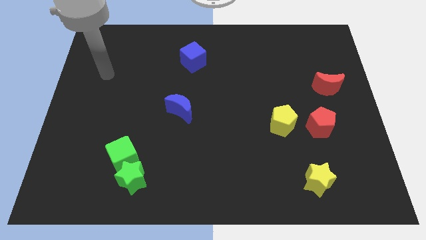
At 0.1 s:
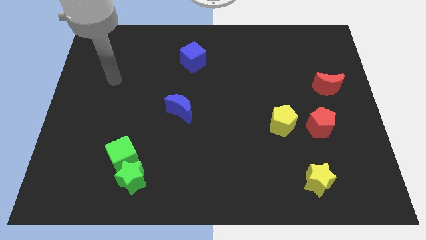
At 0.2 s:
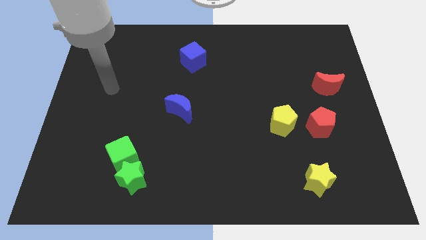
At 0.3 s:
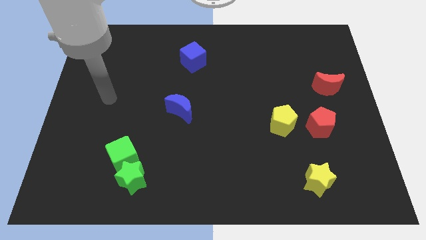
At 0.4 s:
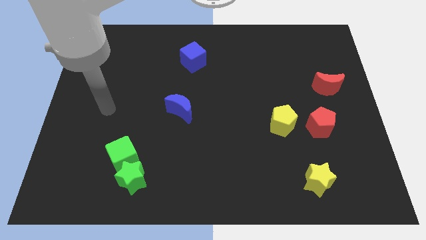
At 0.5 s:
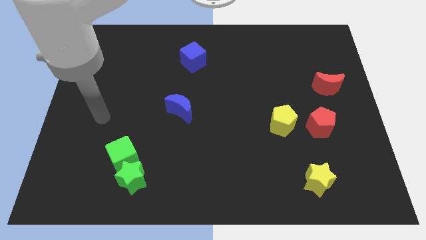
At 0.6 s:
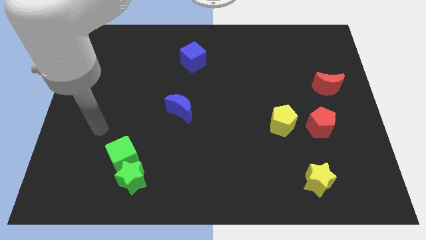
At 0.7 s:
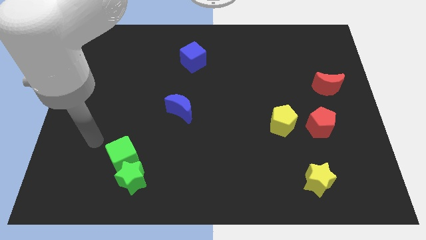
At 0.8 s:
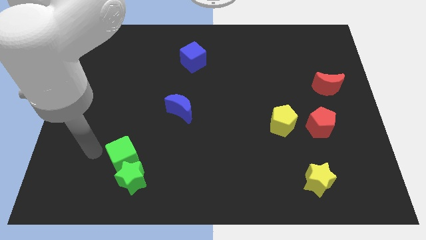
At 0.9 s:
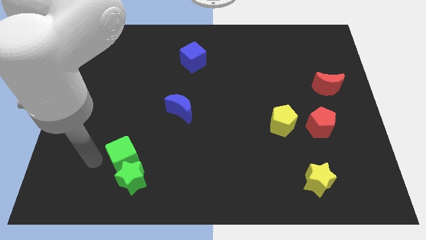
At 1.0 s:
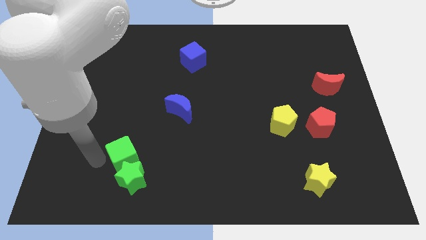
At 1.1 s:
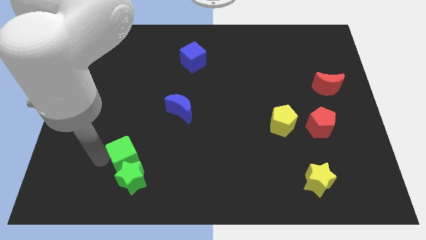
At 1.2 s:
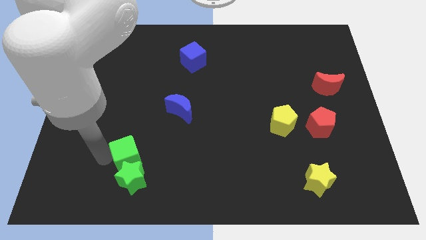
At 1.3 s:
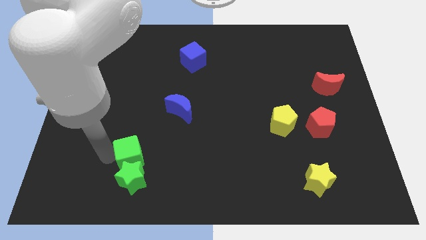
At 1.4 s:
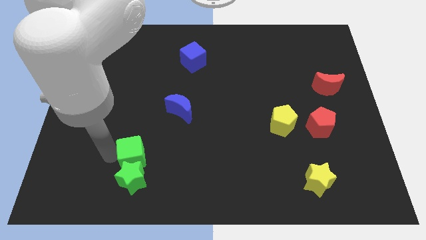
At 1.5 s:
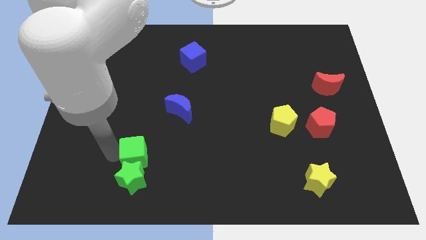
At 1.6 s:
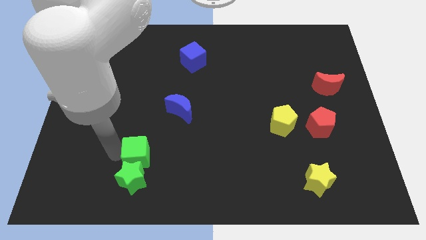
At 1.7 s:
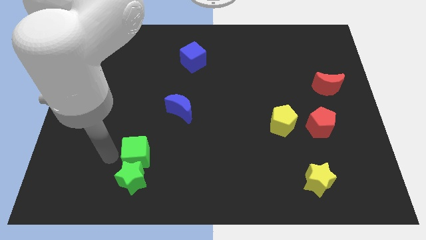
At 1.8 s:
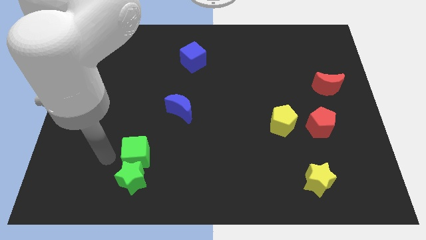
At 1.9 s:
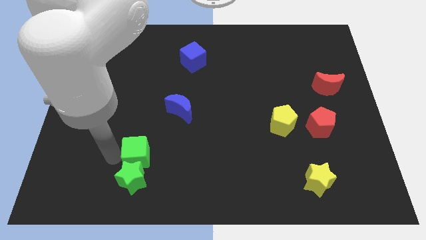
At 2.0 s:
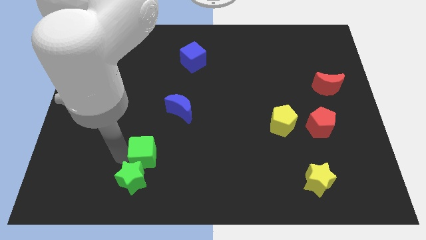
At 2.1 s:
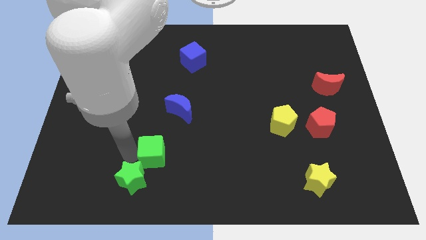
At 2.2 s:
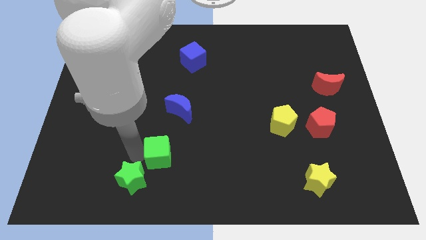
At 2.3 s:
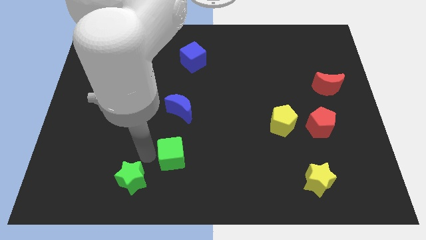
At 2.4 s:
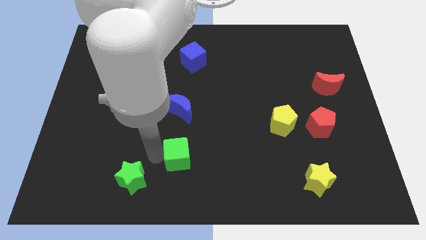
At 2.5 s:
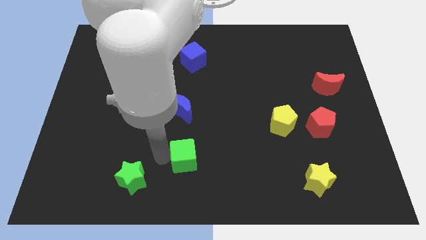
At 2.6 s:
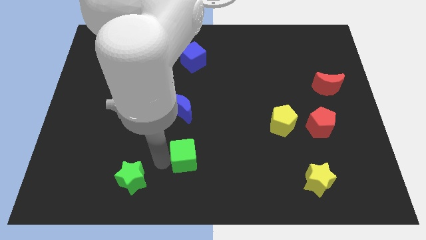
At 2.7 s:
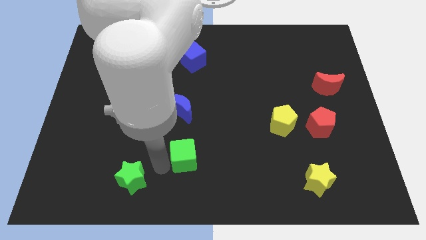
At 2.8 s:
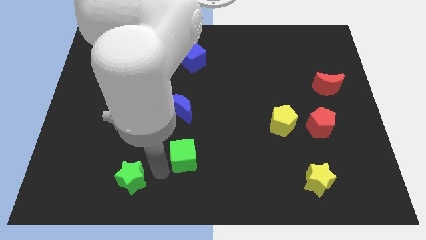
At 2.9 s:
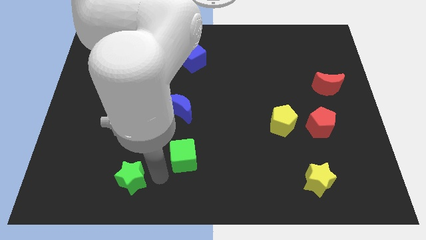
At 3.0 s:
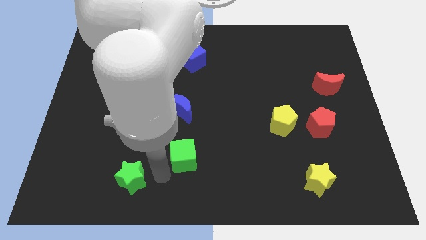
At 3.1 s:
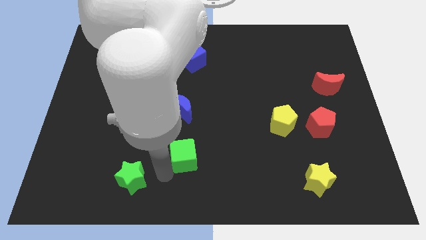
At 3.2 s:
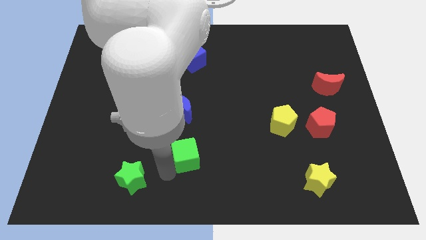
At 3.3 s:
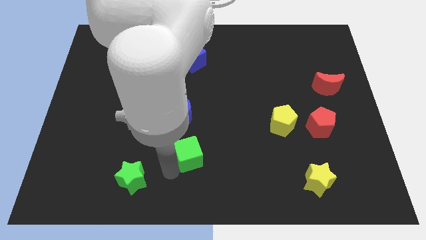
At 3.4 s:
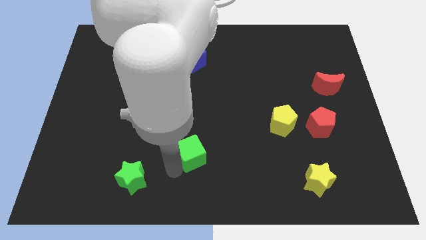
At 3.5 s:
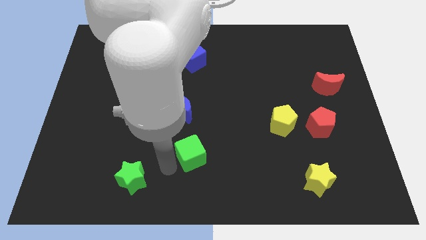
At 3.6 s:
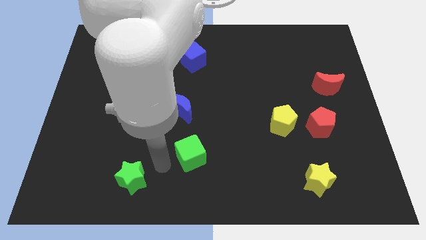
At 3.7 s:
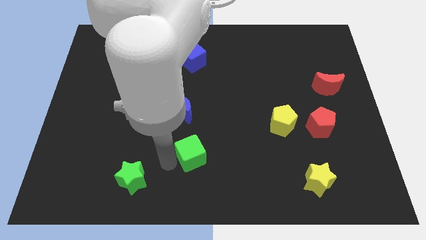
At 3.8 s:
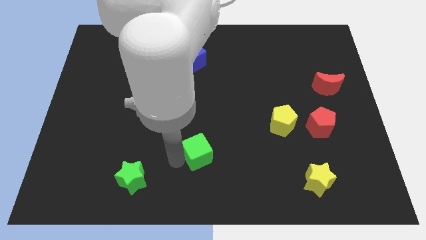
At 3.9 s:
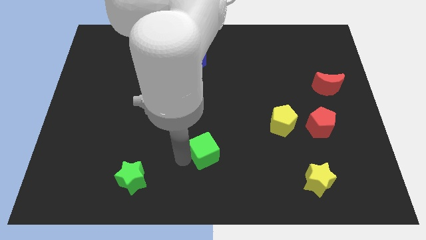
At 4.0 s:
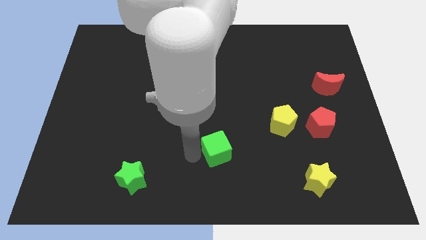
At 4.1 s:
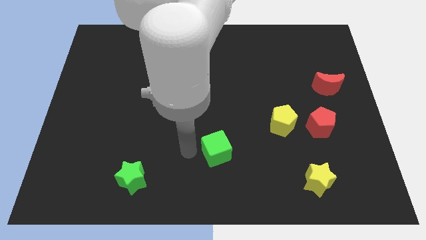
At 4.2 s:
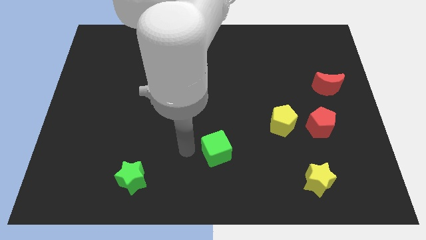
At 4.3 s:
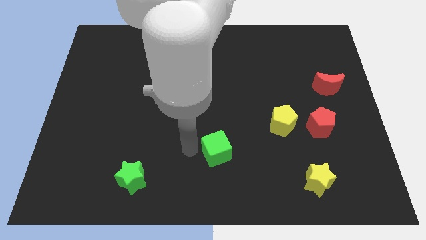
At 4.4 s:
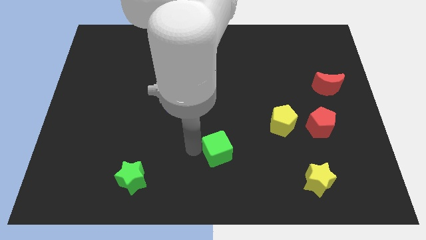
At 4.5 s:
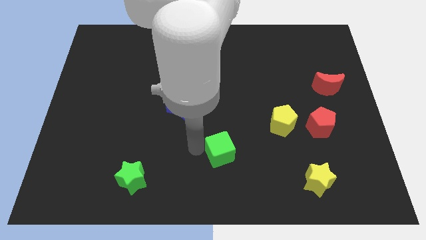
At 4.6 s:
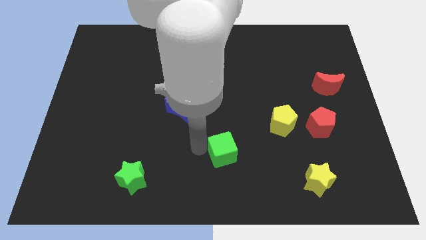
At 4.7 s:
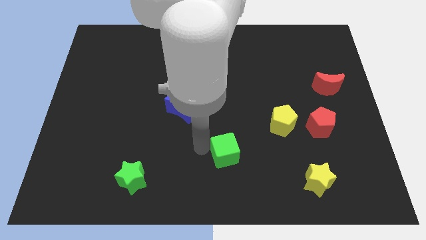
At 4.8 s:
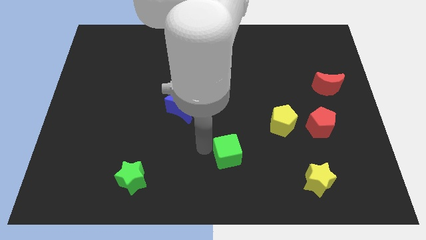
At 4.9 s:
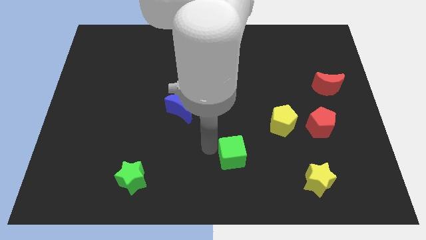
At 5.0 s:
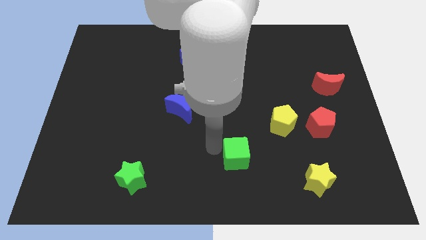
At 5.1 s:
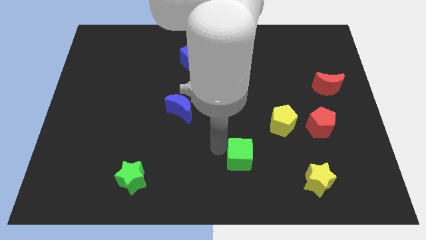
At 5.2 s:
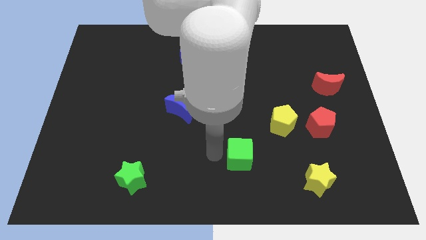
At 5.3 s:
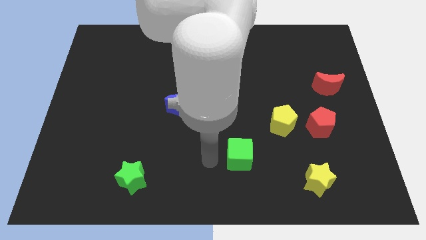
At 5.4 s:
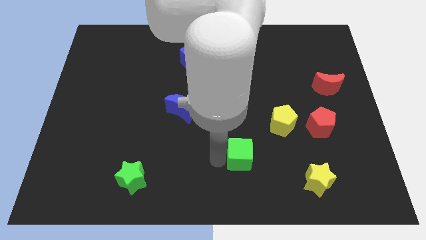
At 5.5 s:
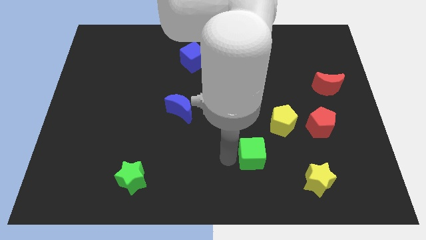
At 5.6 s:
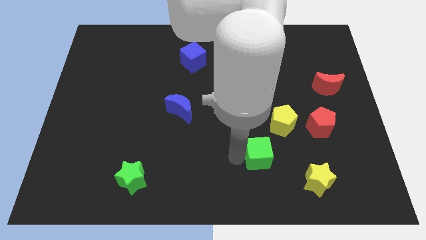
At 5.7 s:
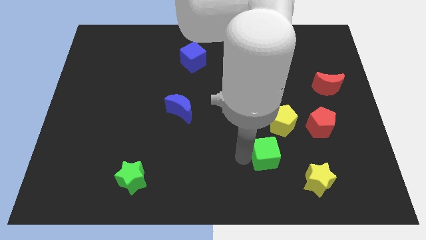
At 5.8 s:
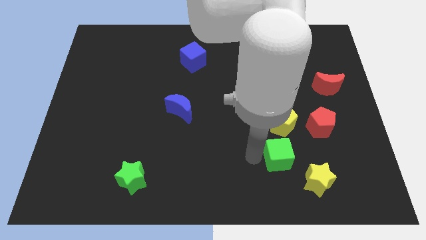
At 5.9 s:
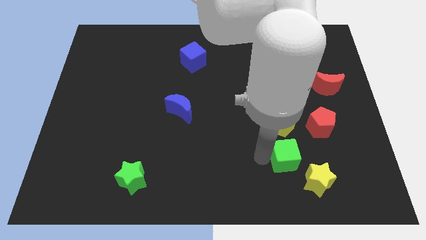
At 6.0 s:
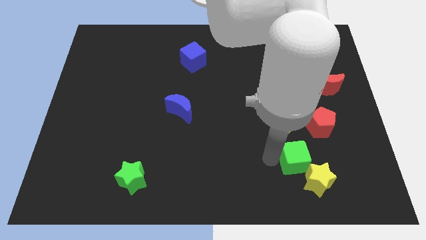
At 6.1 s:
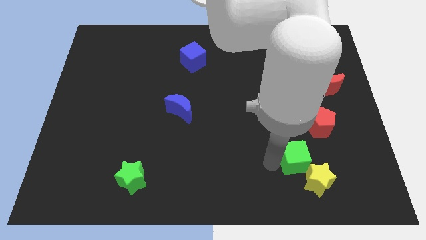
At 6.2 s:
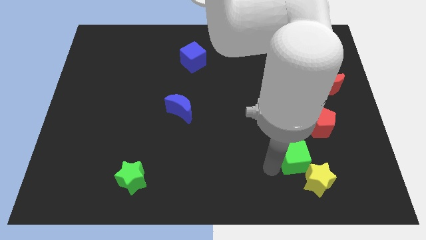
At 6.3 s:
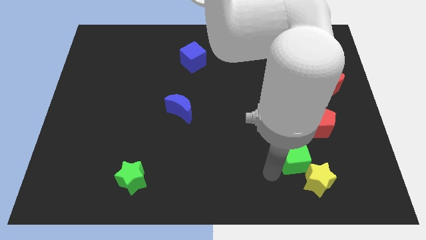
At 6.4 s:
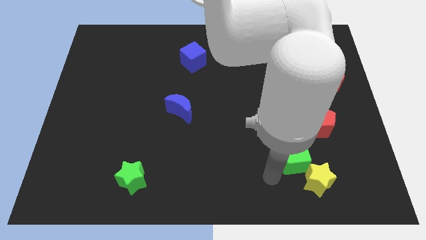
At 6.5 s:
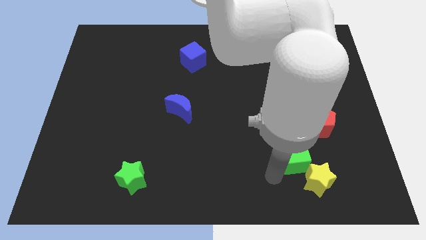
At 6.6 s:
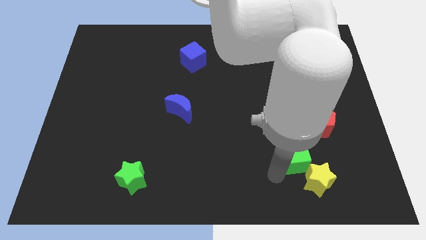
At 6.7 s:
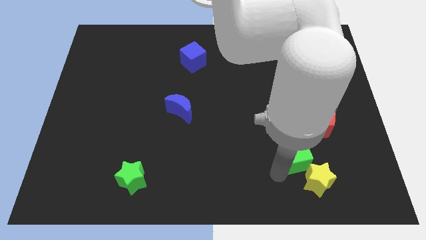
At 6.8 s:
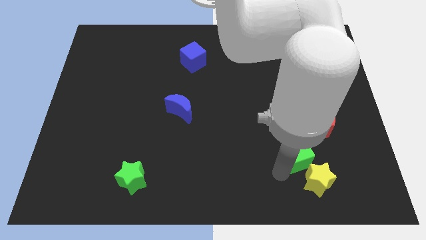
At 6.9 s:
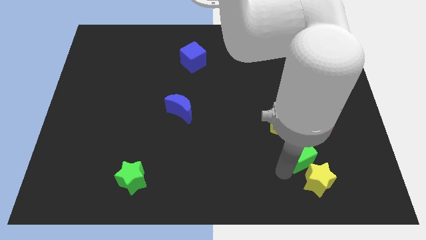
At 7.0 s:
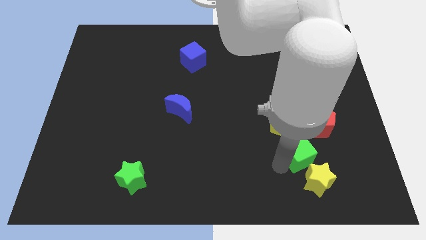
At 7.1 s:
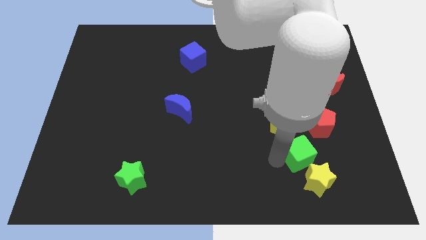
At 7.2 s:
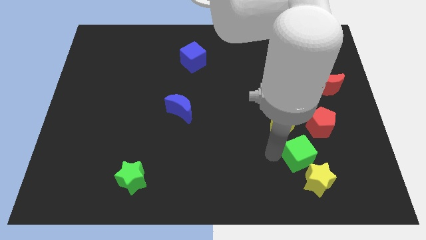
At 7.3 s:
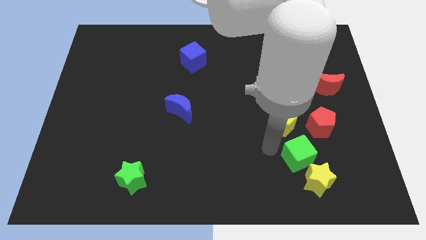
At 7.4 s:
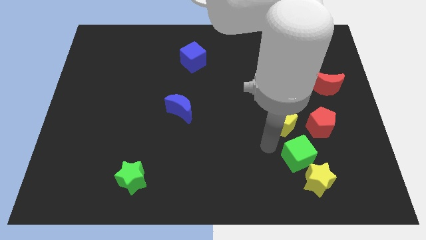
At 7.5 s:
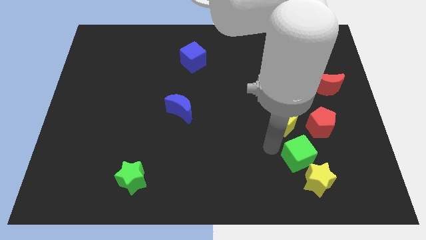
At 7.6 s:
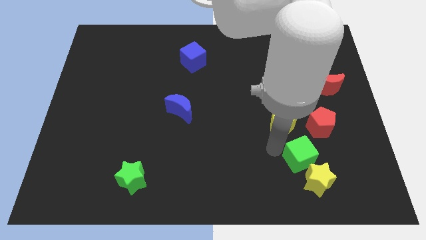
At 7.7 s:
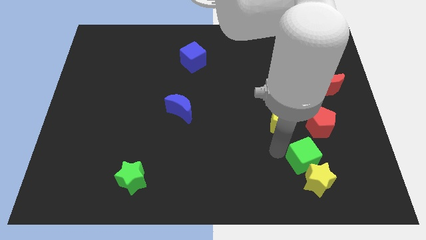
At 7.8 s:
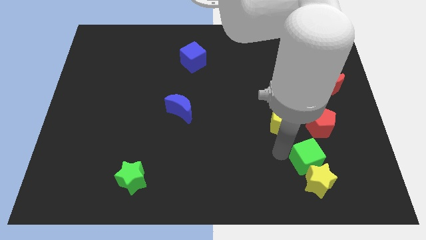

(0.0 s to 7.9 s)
put the green cube to the bottom side of the red pentagon
